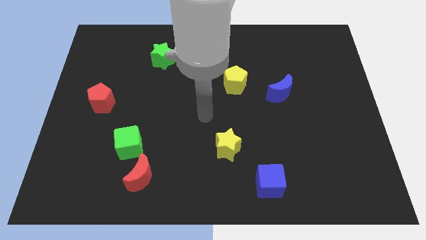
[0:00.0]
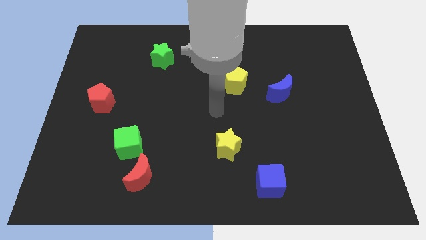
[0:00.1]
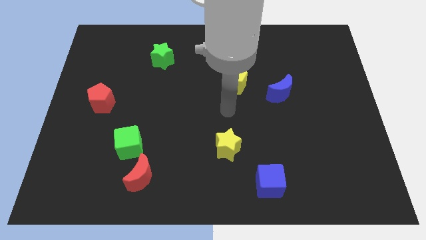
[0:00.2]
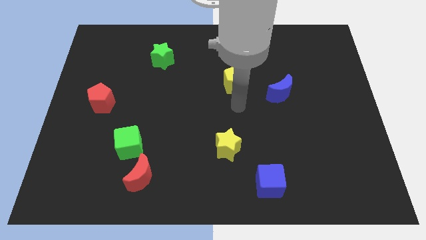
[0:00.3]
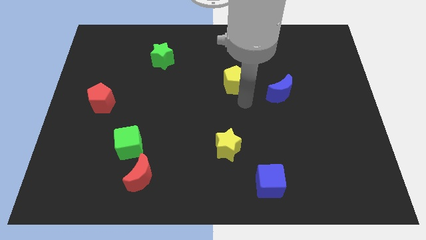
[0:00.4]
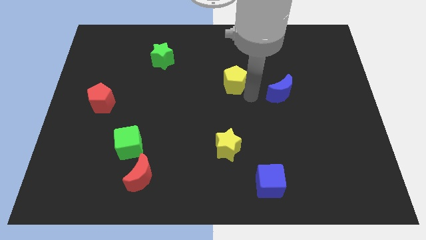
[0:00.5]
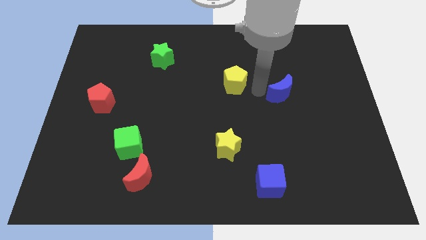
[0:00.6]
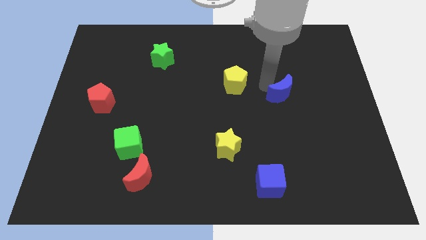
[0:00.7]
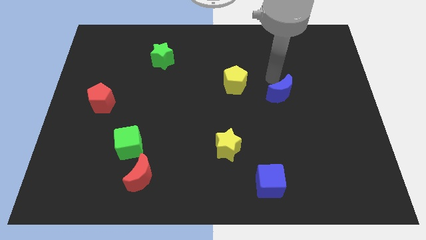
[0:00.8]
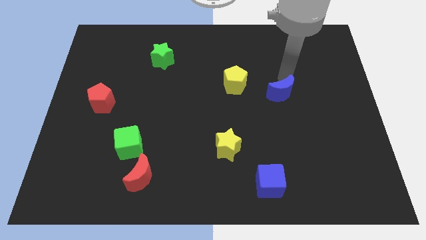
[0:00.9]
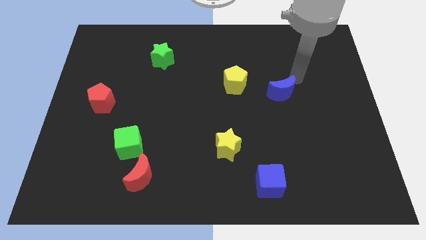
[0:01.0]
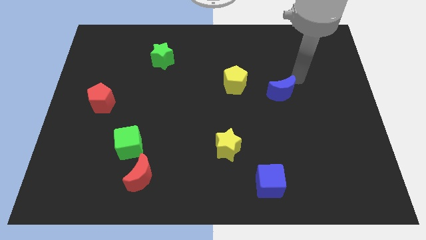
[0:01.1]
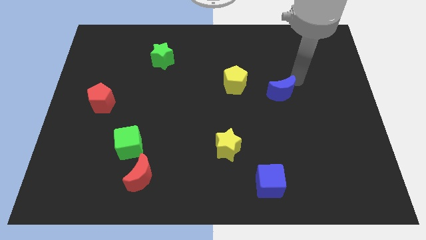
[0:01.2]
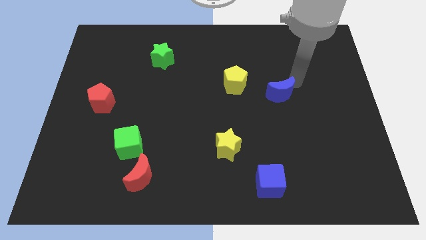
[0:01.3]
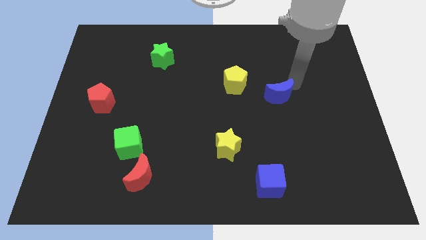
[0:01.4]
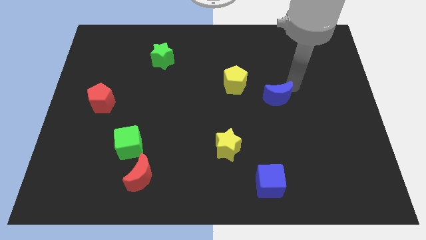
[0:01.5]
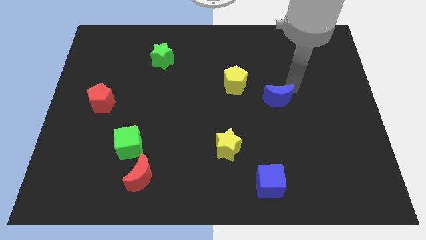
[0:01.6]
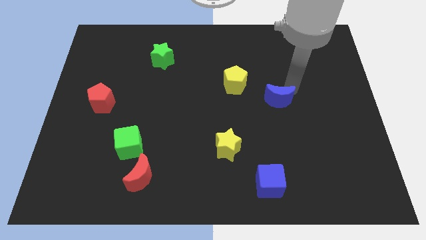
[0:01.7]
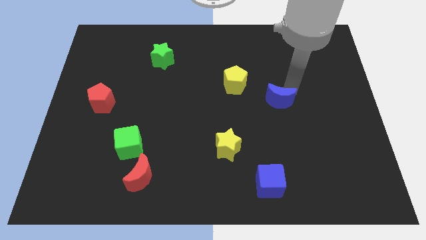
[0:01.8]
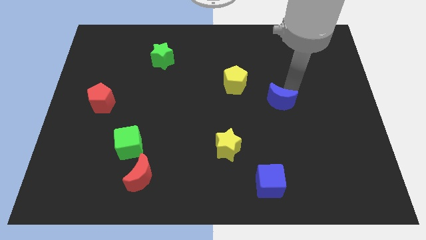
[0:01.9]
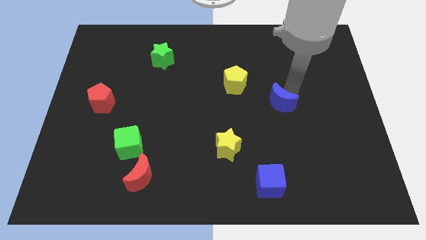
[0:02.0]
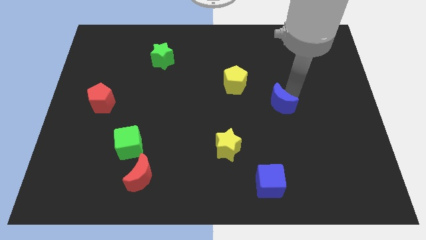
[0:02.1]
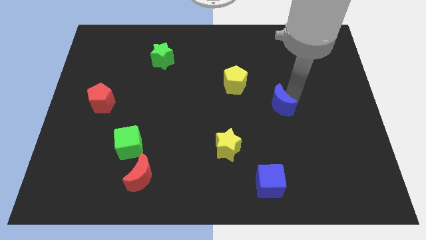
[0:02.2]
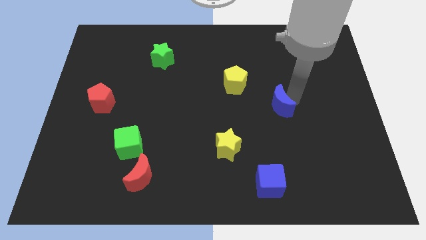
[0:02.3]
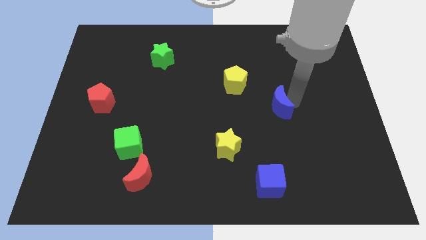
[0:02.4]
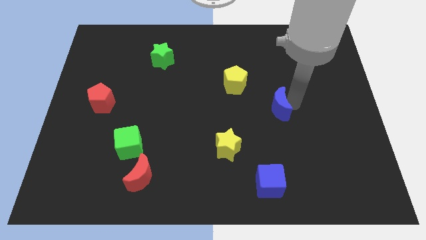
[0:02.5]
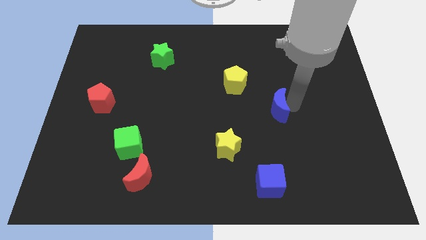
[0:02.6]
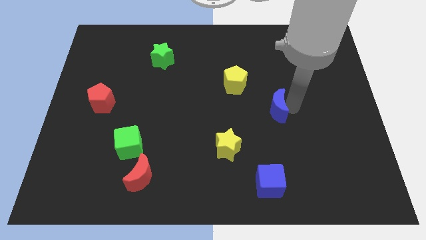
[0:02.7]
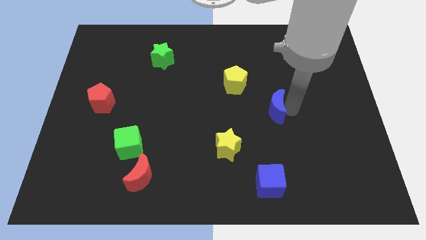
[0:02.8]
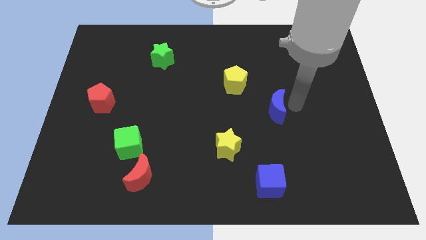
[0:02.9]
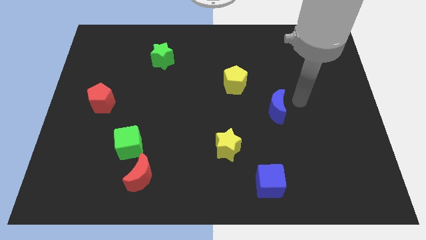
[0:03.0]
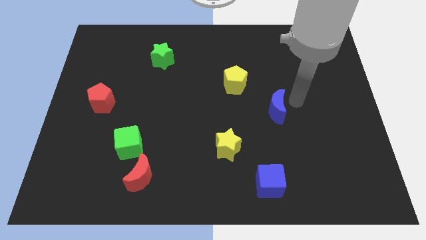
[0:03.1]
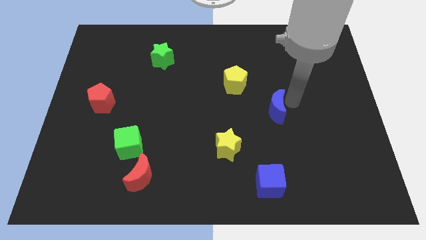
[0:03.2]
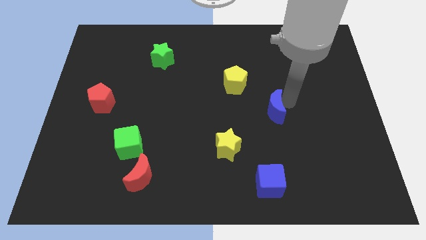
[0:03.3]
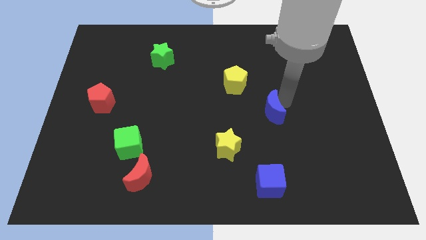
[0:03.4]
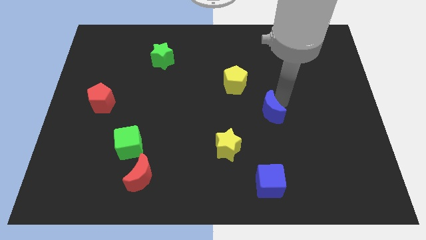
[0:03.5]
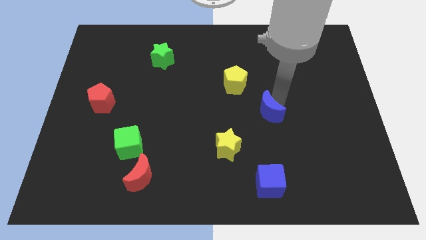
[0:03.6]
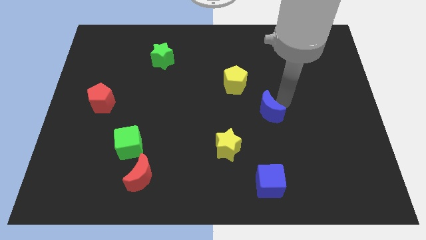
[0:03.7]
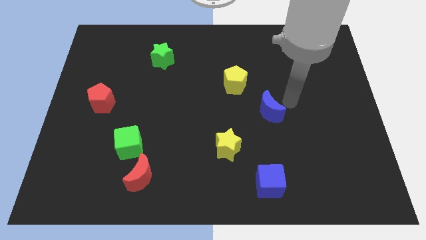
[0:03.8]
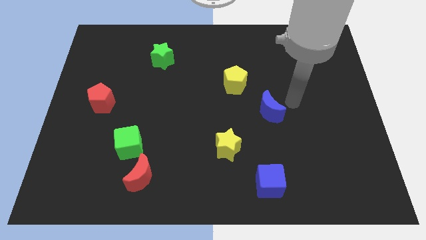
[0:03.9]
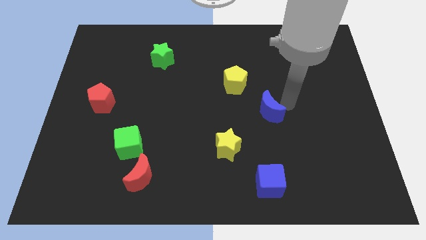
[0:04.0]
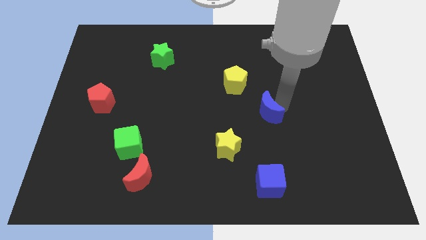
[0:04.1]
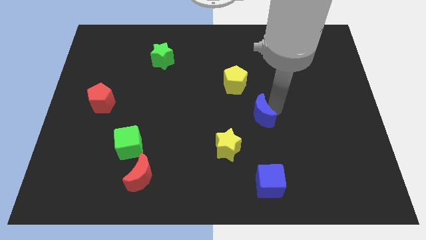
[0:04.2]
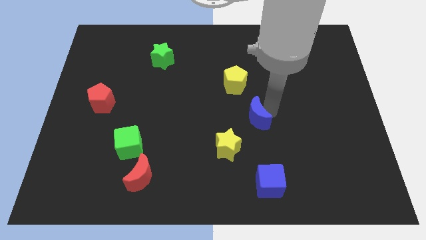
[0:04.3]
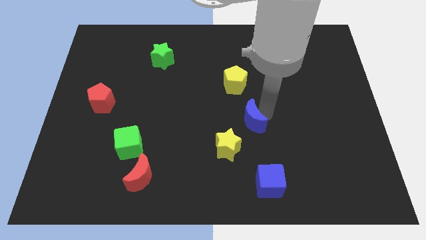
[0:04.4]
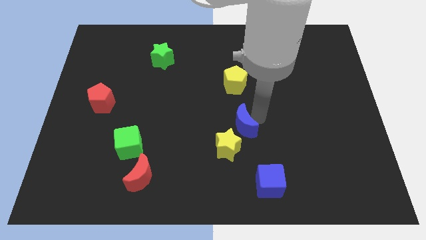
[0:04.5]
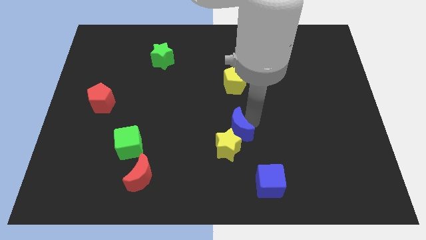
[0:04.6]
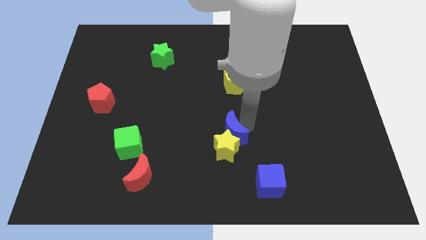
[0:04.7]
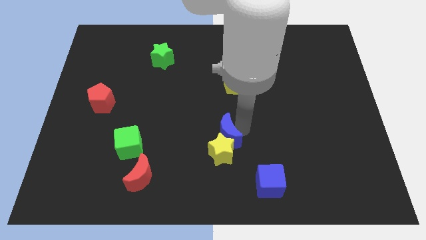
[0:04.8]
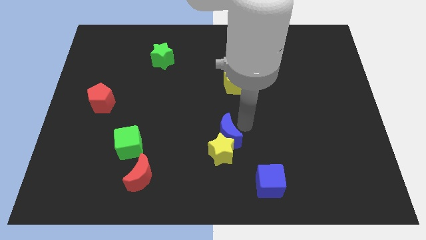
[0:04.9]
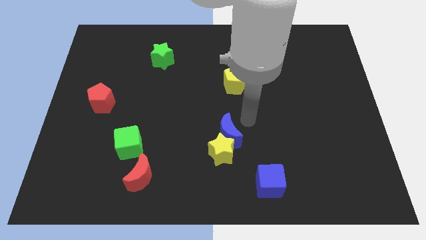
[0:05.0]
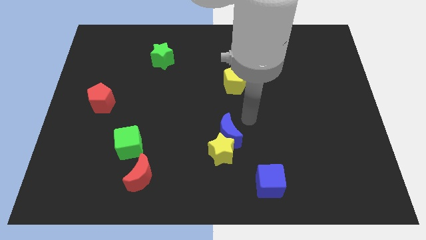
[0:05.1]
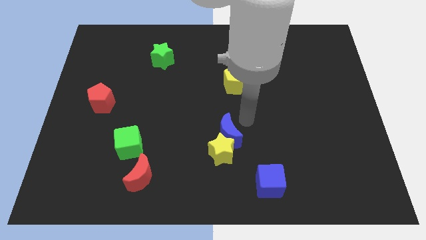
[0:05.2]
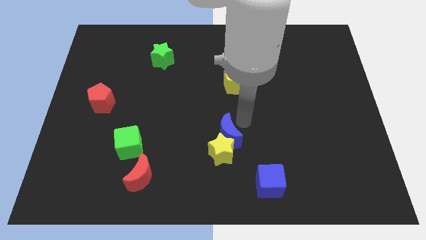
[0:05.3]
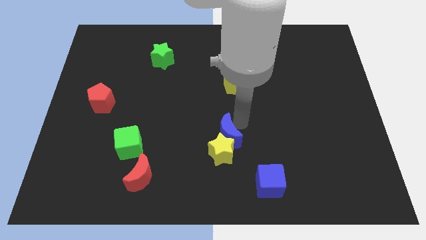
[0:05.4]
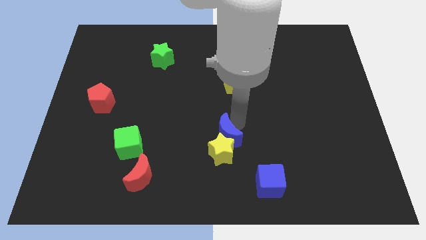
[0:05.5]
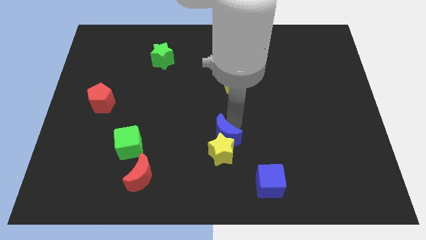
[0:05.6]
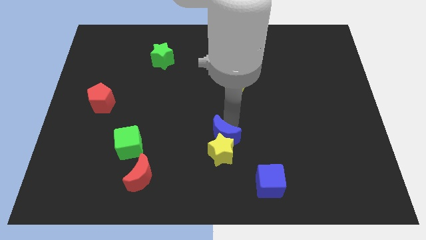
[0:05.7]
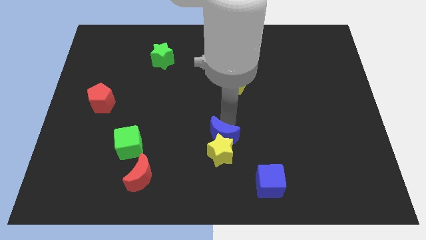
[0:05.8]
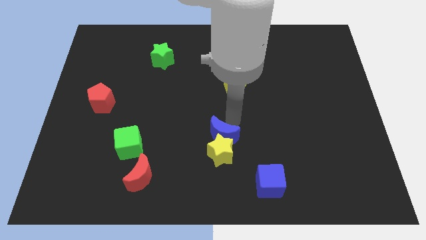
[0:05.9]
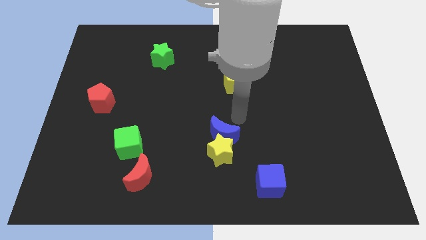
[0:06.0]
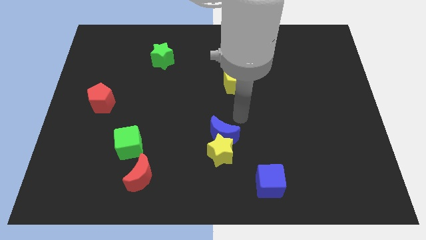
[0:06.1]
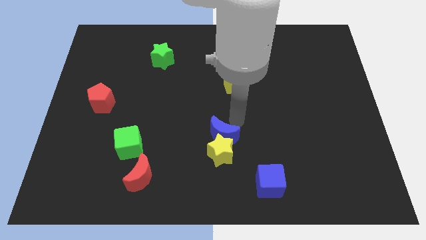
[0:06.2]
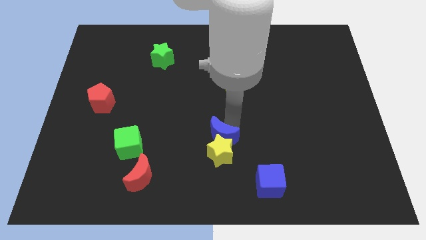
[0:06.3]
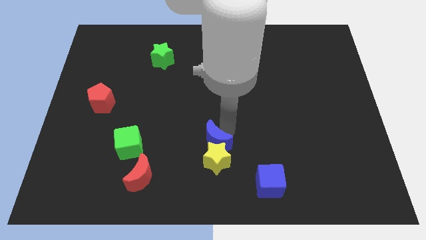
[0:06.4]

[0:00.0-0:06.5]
slide the blue moon downwards and then left

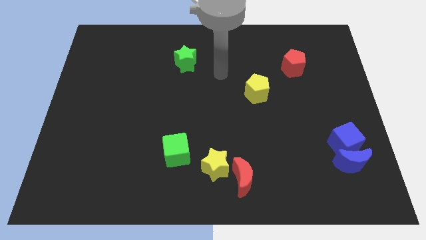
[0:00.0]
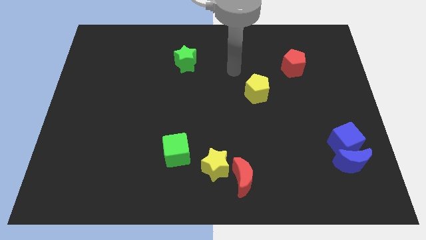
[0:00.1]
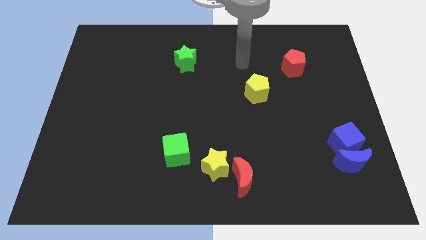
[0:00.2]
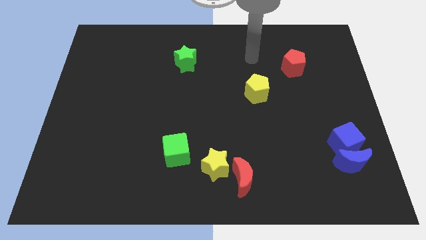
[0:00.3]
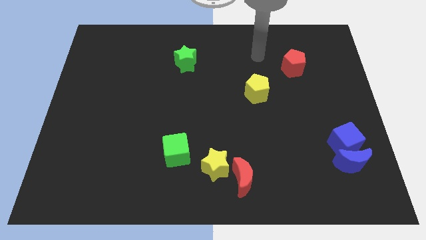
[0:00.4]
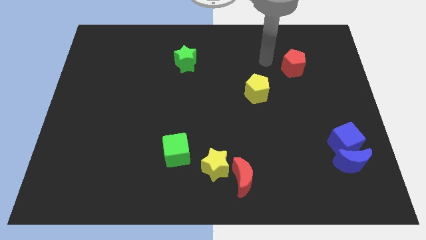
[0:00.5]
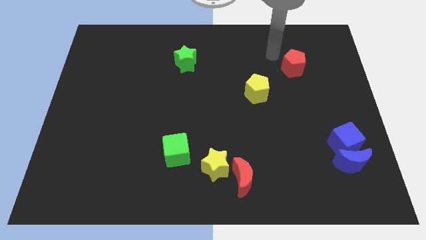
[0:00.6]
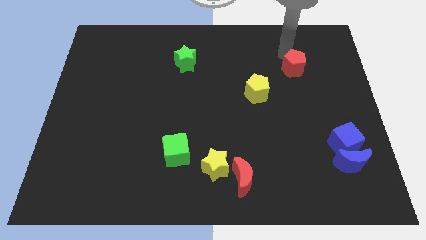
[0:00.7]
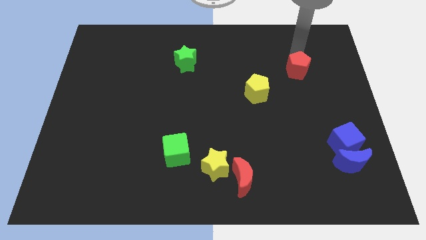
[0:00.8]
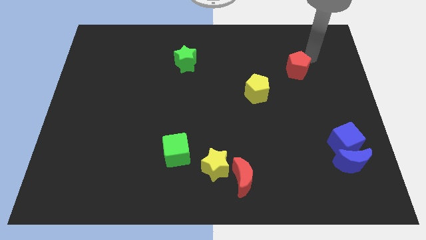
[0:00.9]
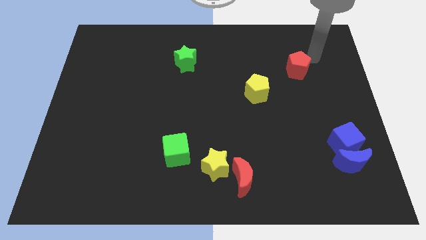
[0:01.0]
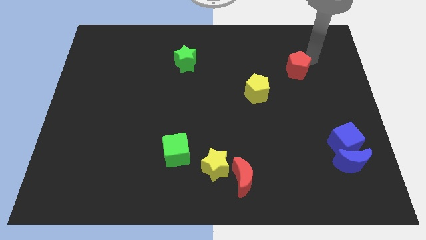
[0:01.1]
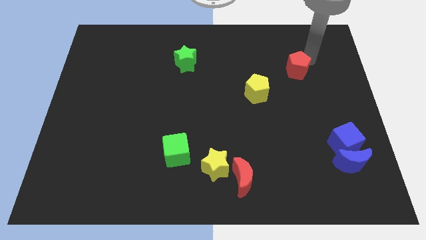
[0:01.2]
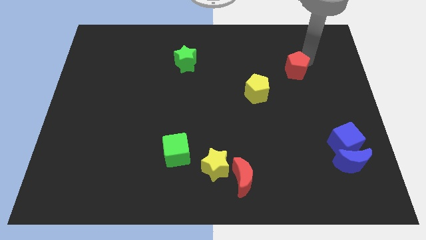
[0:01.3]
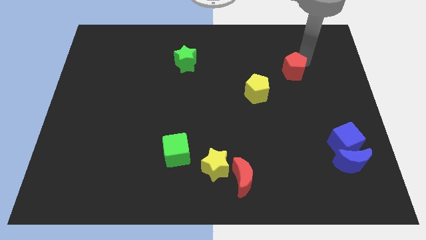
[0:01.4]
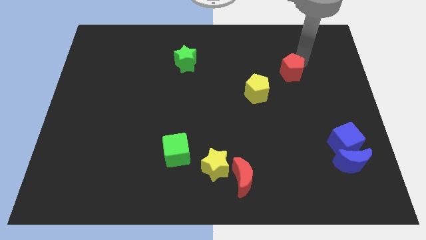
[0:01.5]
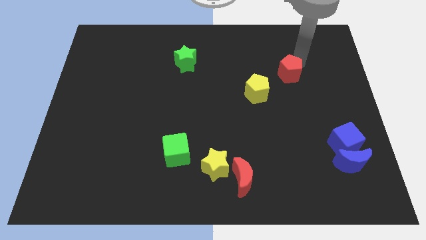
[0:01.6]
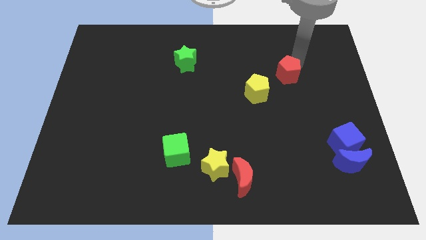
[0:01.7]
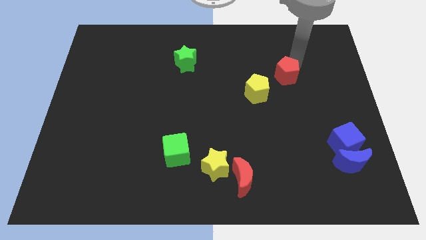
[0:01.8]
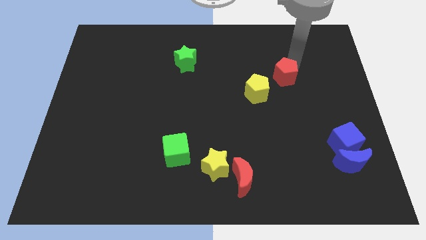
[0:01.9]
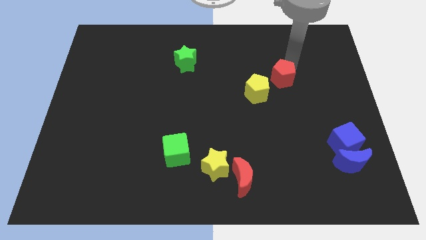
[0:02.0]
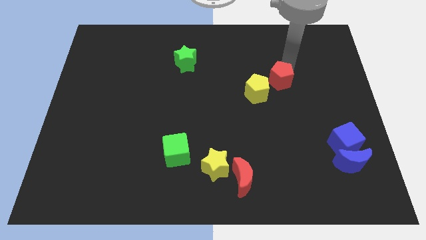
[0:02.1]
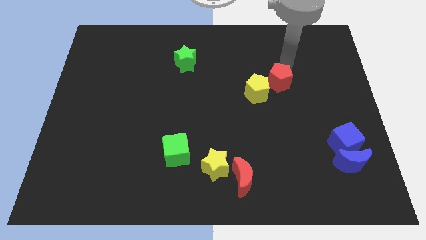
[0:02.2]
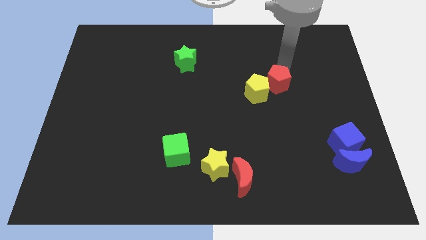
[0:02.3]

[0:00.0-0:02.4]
slightly push the red pentagon down and then to the left
